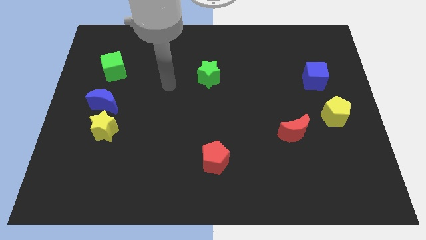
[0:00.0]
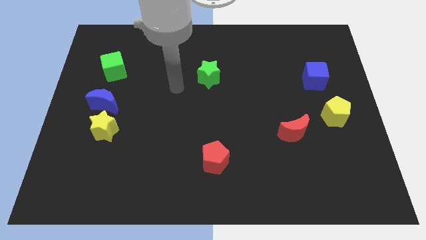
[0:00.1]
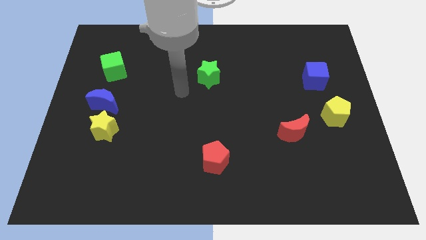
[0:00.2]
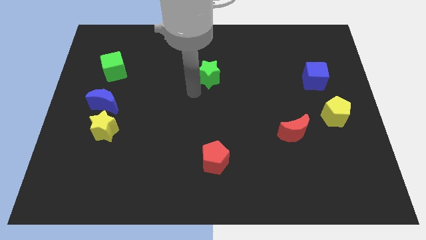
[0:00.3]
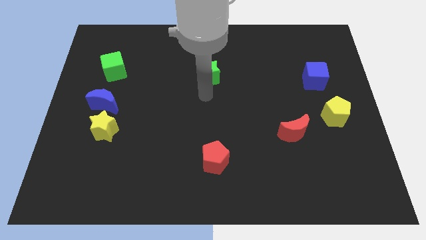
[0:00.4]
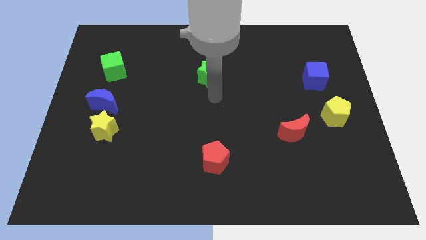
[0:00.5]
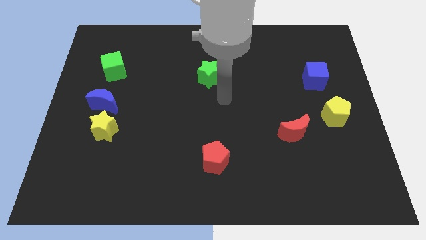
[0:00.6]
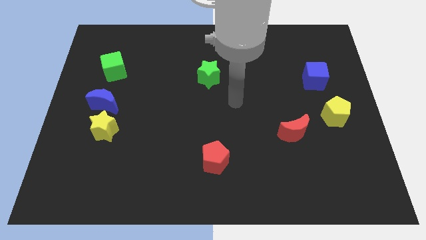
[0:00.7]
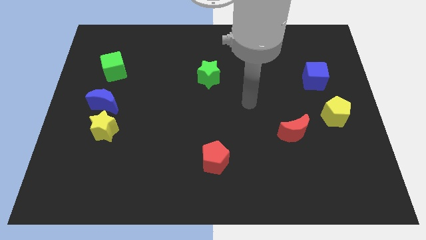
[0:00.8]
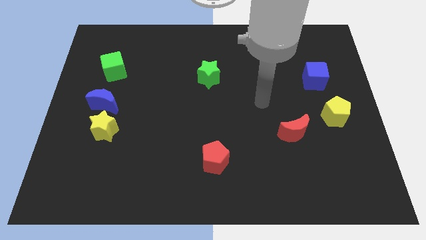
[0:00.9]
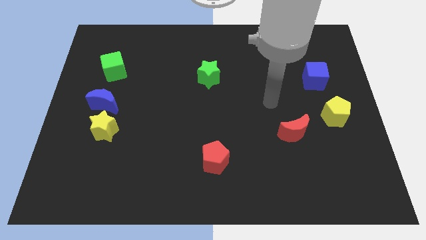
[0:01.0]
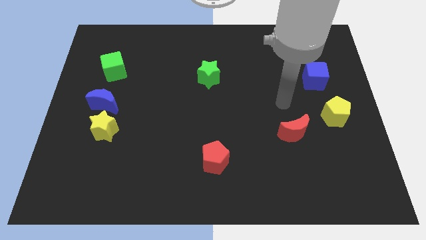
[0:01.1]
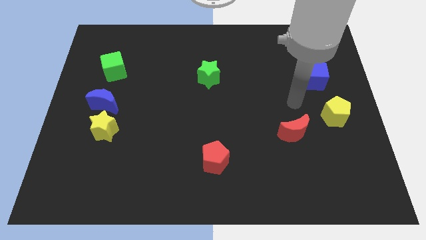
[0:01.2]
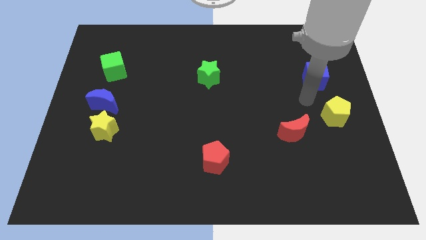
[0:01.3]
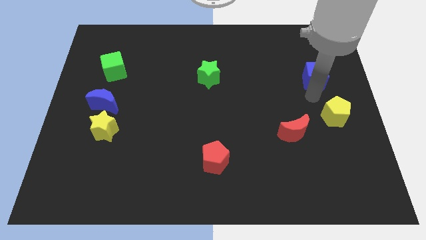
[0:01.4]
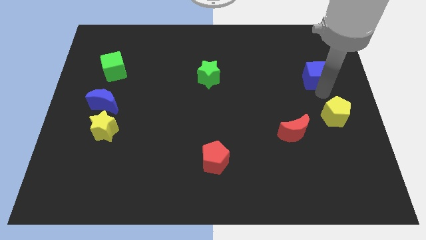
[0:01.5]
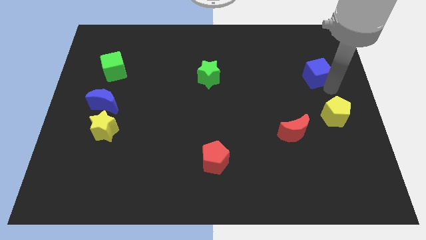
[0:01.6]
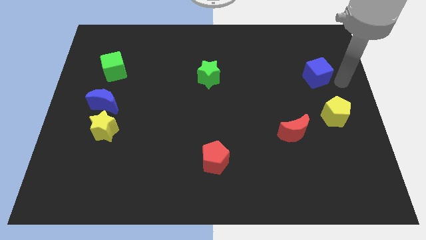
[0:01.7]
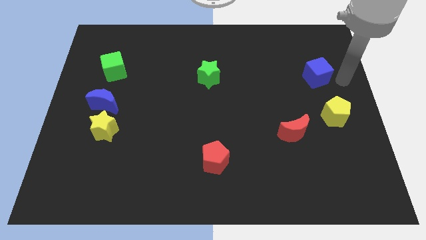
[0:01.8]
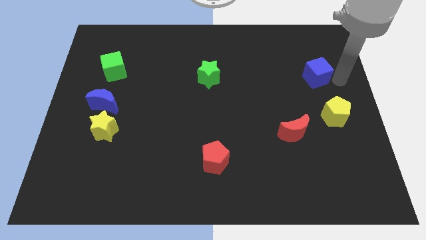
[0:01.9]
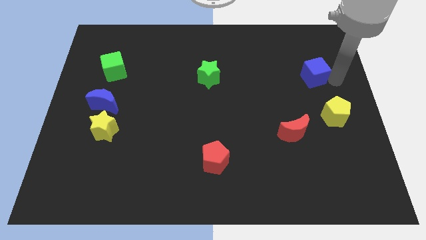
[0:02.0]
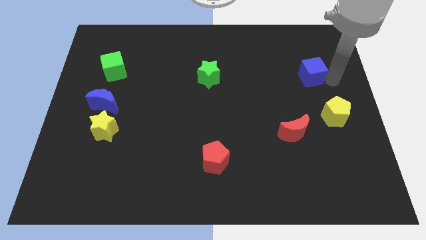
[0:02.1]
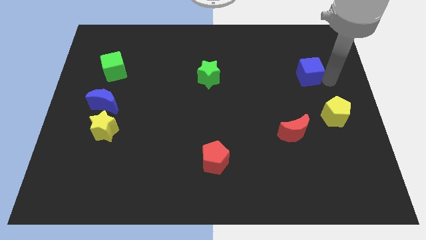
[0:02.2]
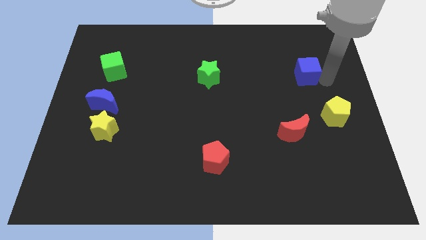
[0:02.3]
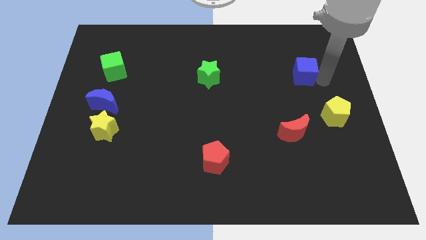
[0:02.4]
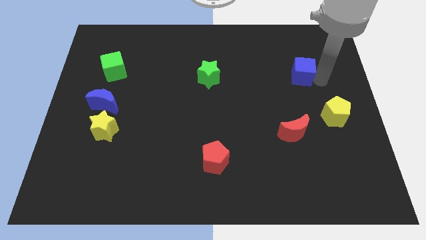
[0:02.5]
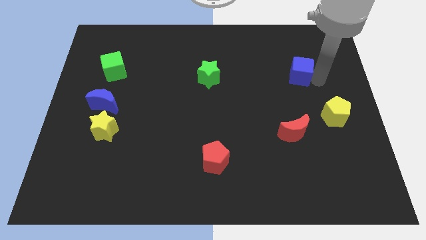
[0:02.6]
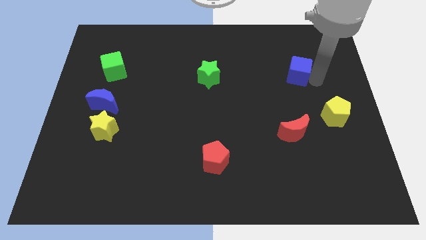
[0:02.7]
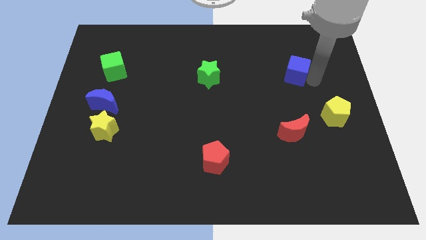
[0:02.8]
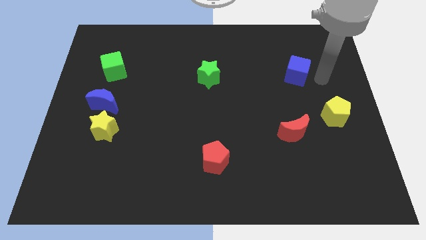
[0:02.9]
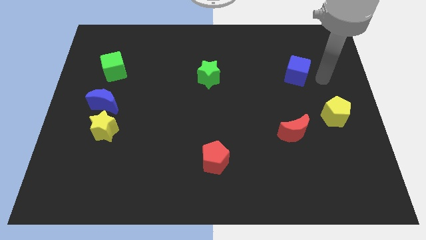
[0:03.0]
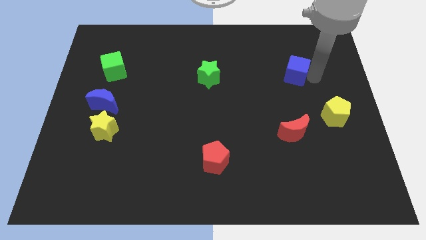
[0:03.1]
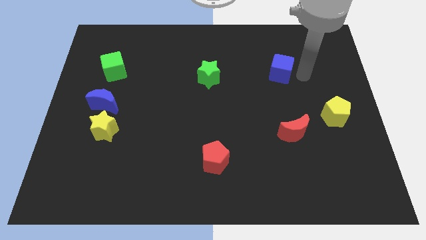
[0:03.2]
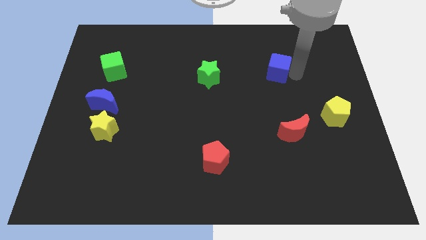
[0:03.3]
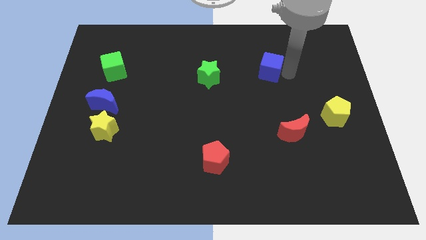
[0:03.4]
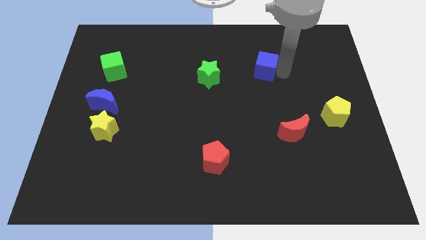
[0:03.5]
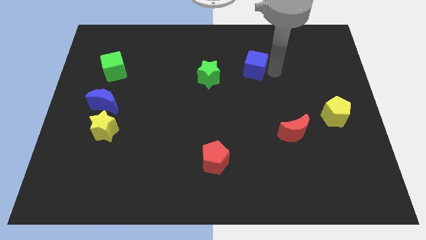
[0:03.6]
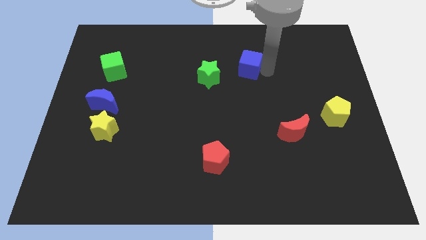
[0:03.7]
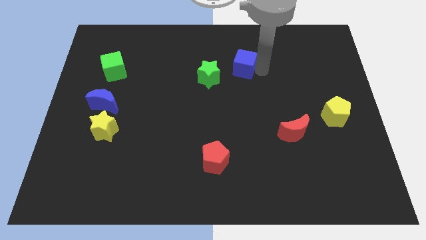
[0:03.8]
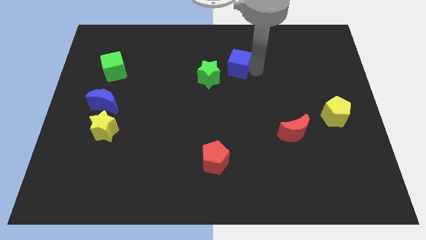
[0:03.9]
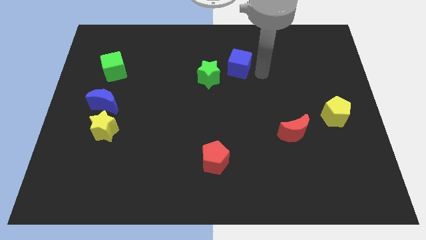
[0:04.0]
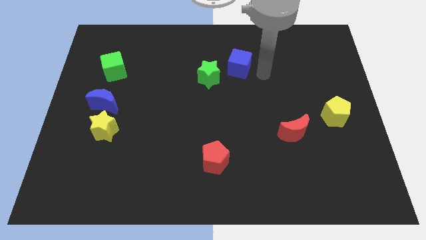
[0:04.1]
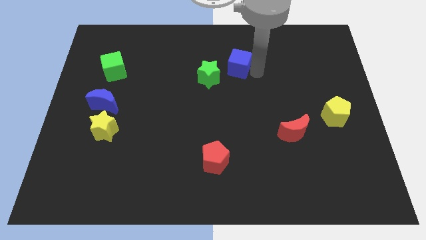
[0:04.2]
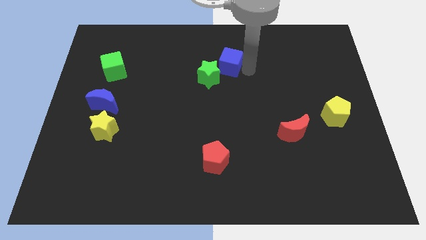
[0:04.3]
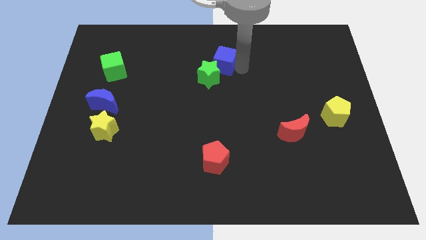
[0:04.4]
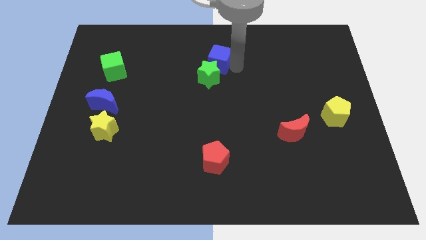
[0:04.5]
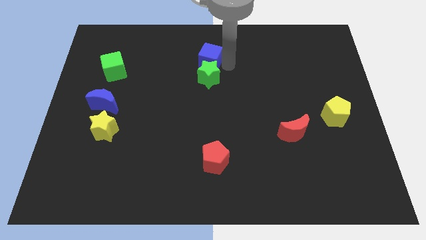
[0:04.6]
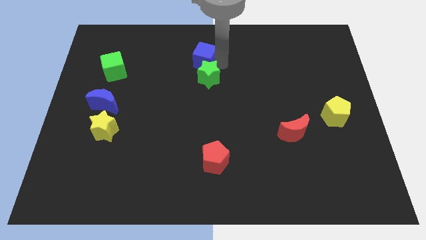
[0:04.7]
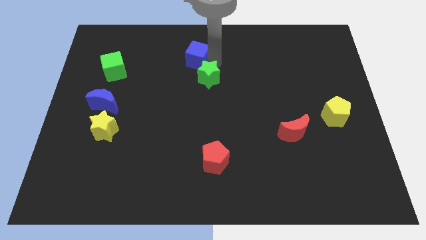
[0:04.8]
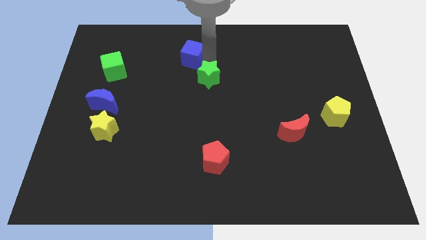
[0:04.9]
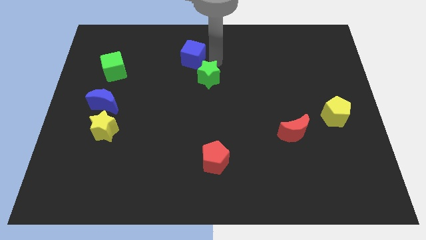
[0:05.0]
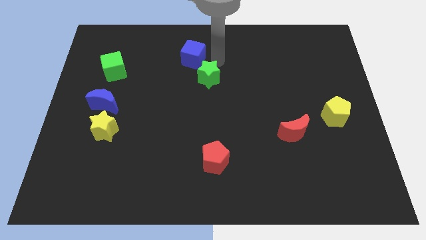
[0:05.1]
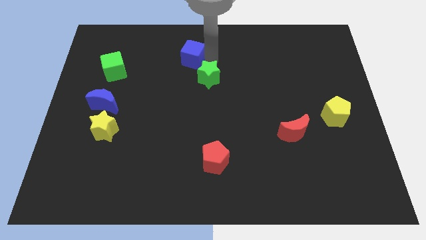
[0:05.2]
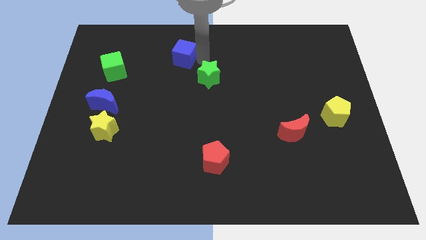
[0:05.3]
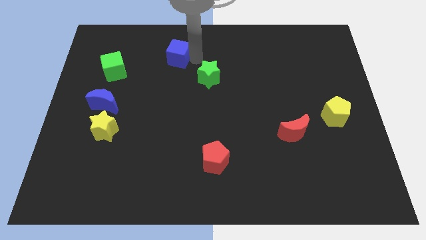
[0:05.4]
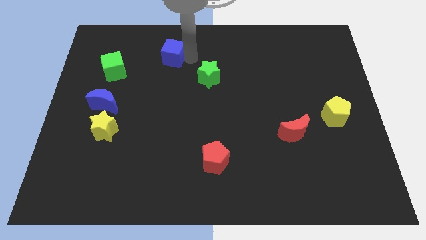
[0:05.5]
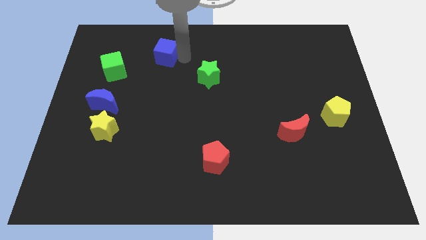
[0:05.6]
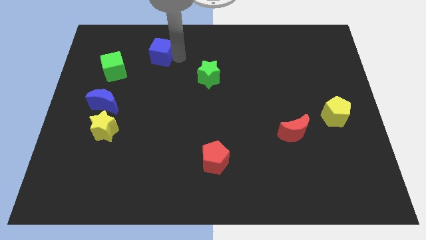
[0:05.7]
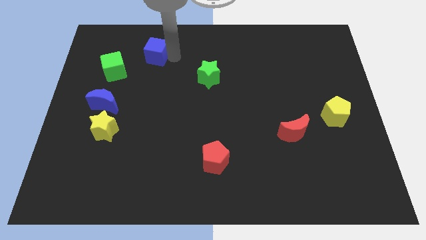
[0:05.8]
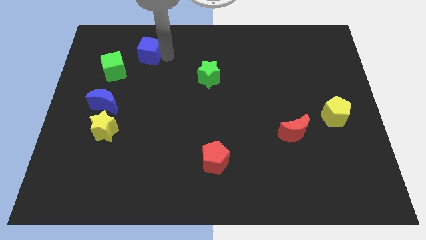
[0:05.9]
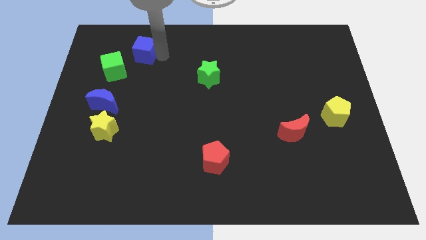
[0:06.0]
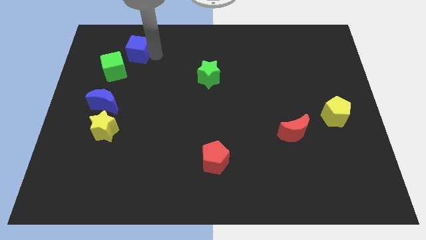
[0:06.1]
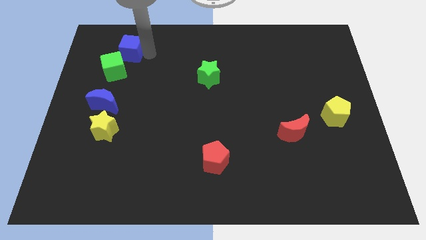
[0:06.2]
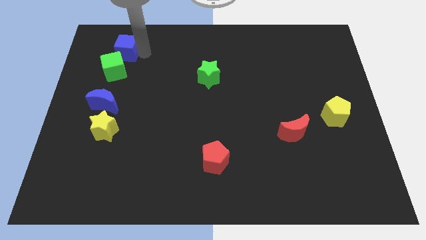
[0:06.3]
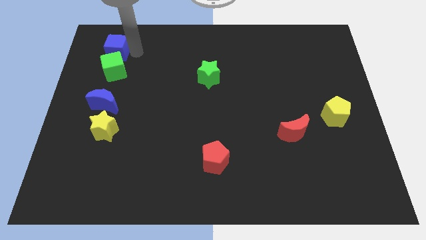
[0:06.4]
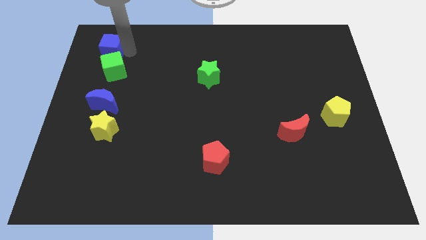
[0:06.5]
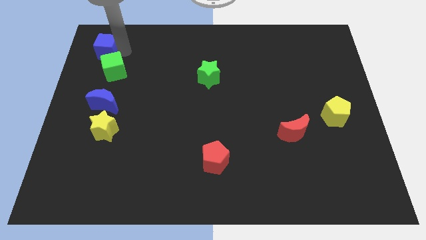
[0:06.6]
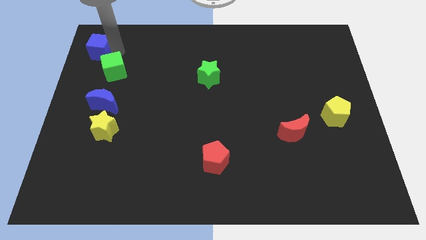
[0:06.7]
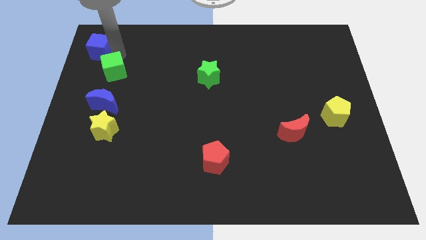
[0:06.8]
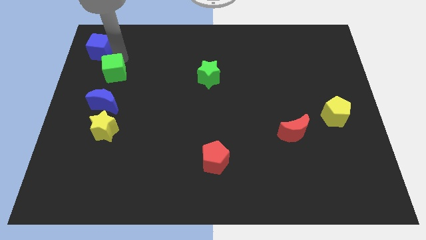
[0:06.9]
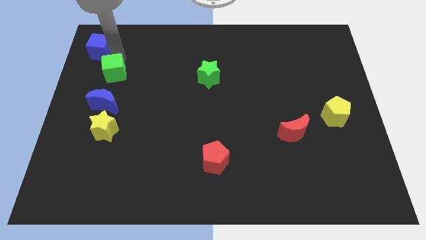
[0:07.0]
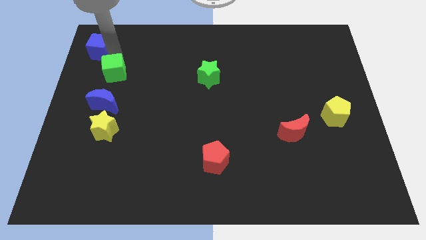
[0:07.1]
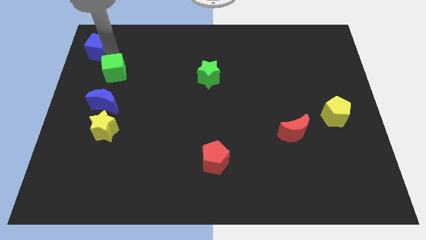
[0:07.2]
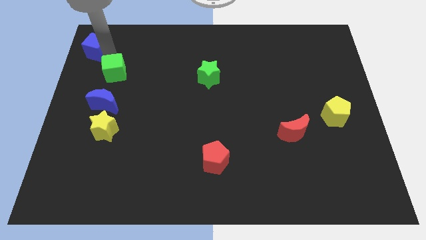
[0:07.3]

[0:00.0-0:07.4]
push the blue cube to the top left of the board
